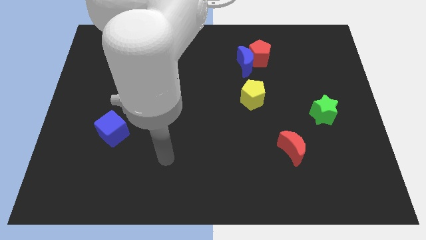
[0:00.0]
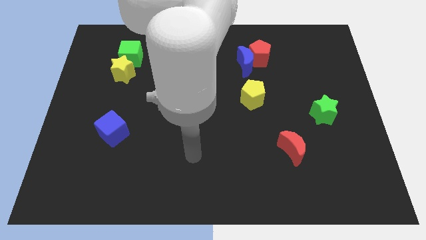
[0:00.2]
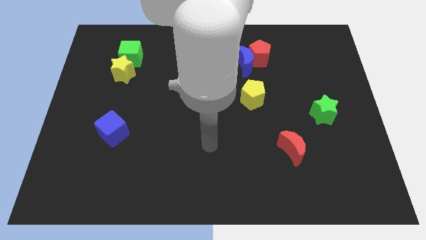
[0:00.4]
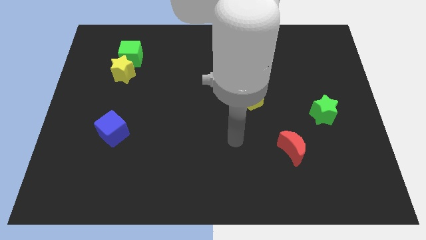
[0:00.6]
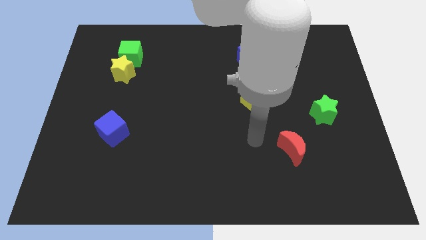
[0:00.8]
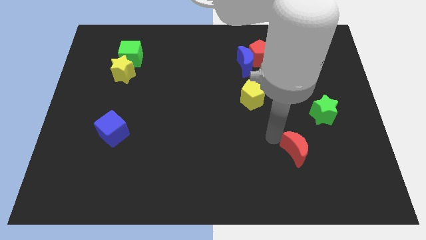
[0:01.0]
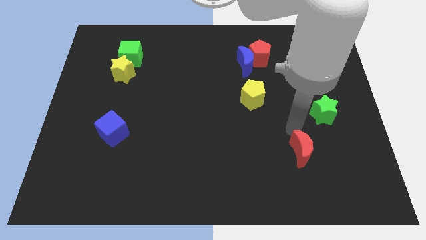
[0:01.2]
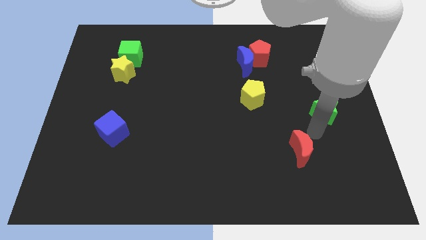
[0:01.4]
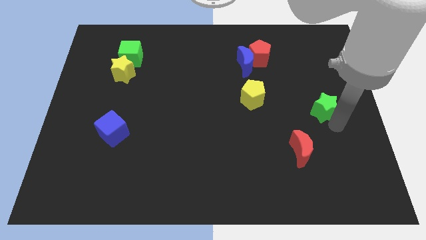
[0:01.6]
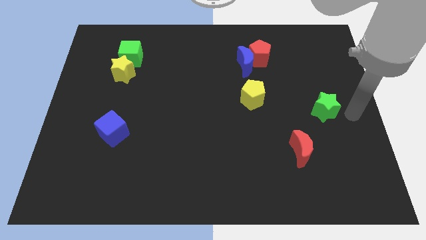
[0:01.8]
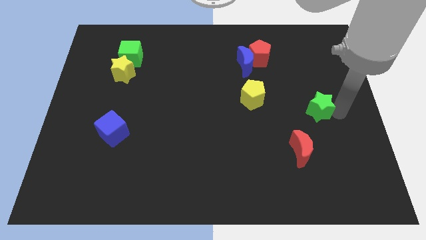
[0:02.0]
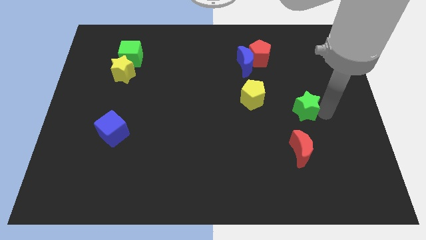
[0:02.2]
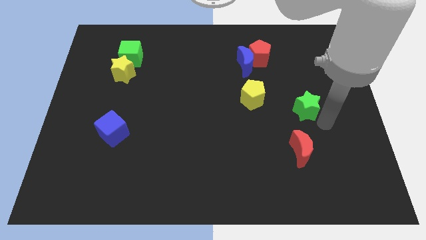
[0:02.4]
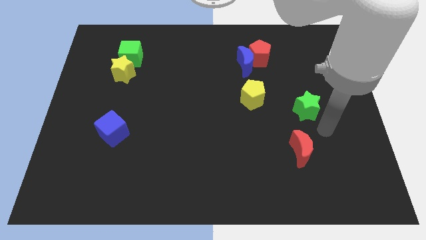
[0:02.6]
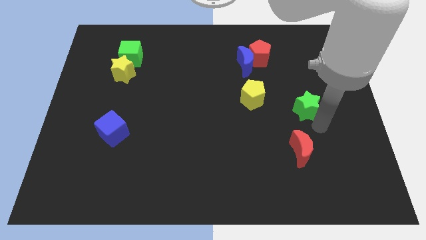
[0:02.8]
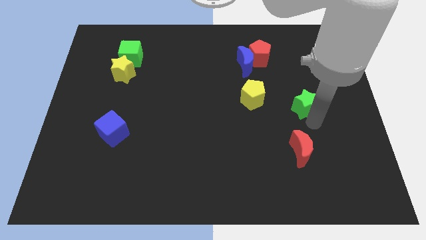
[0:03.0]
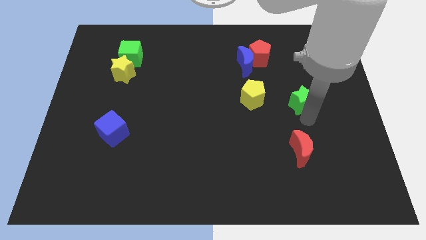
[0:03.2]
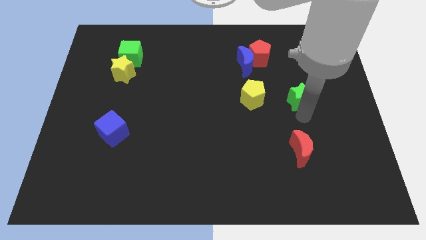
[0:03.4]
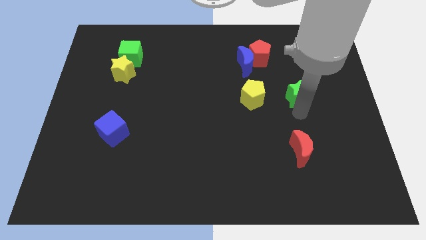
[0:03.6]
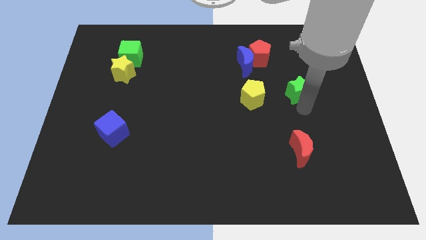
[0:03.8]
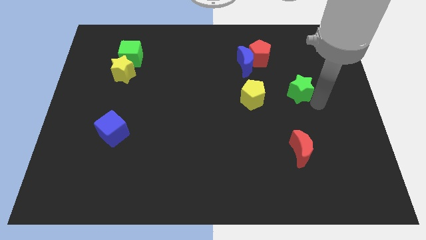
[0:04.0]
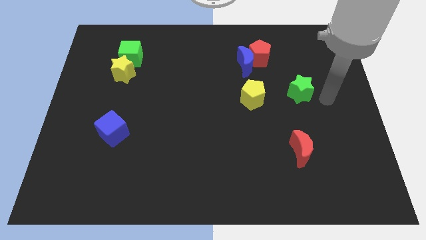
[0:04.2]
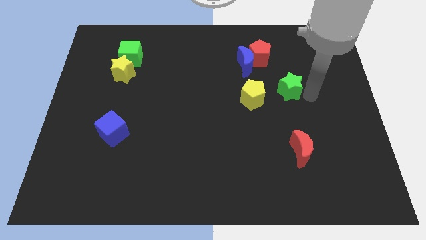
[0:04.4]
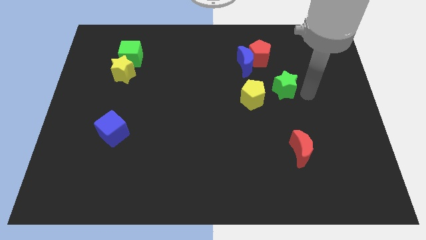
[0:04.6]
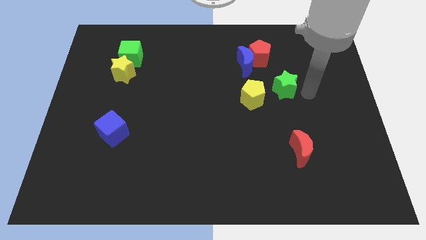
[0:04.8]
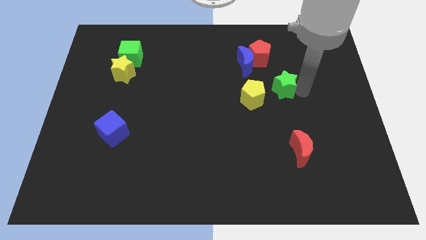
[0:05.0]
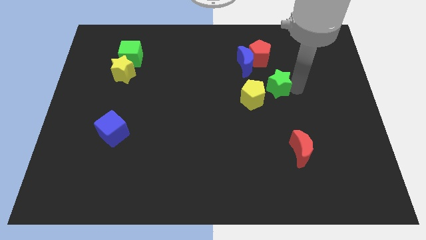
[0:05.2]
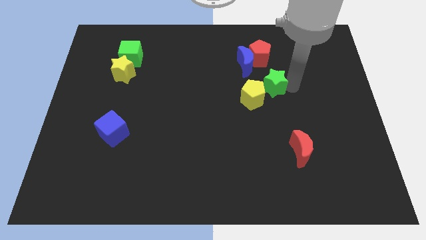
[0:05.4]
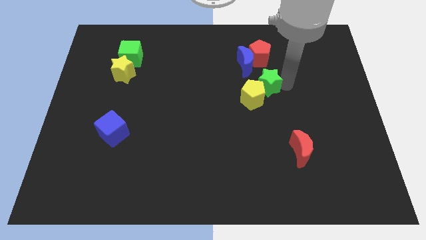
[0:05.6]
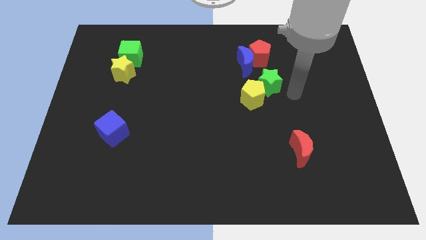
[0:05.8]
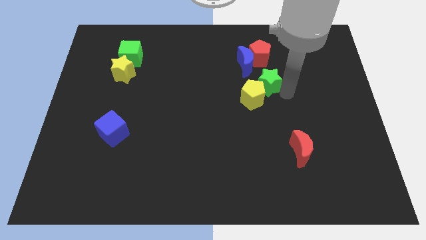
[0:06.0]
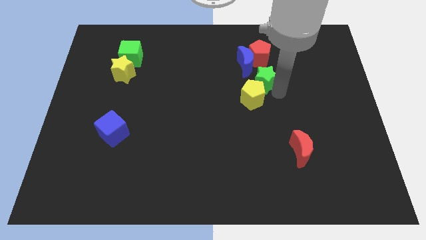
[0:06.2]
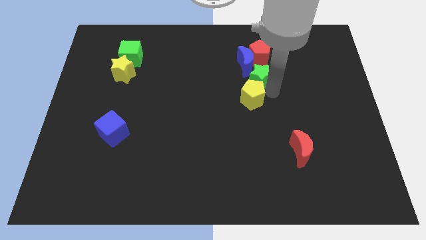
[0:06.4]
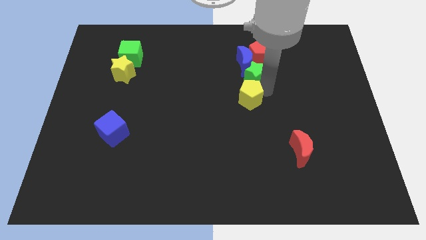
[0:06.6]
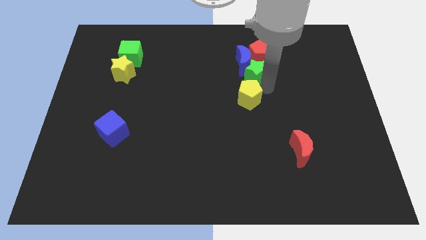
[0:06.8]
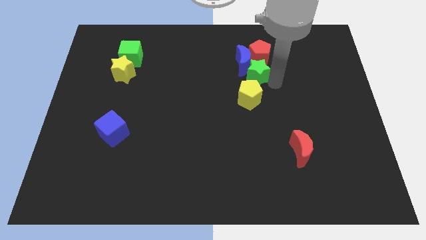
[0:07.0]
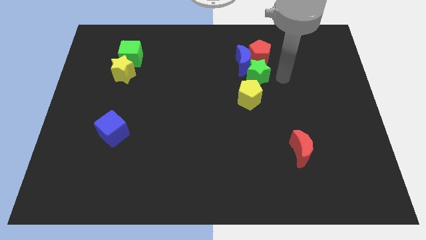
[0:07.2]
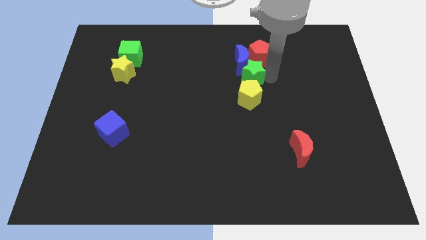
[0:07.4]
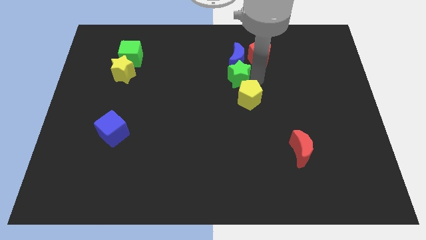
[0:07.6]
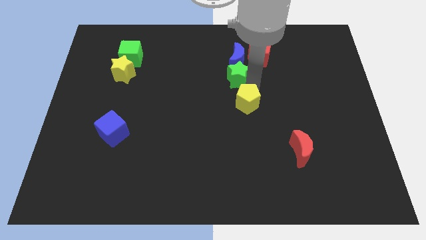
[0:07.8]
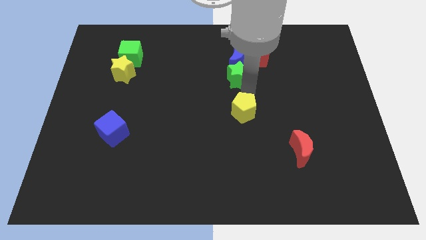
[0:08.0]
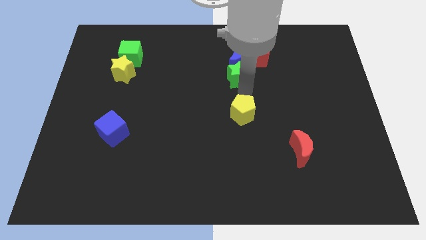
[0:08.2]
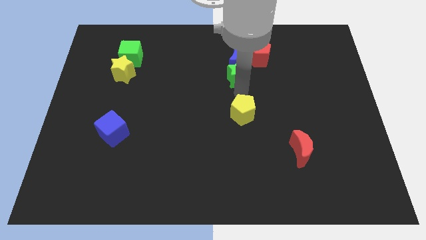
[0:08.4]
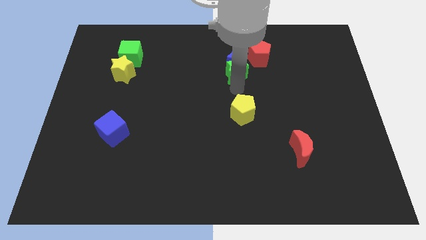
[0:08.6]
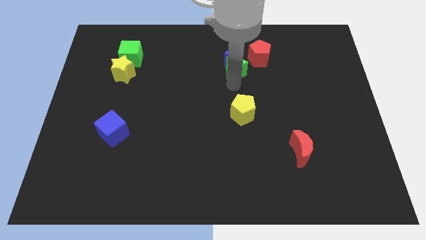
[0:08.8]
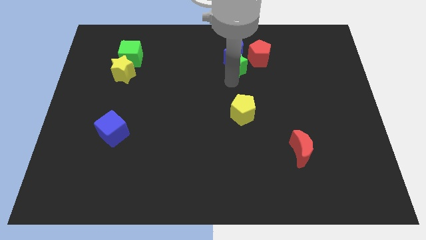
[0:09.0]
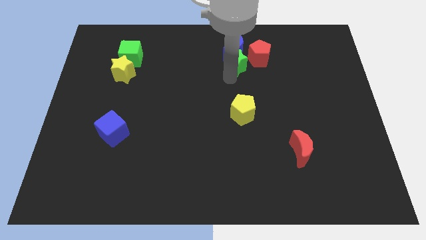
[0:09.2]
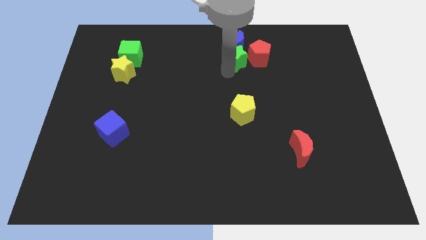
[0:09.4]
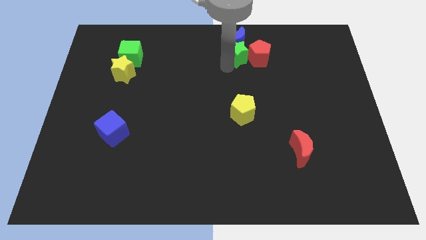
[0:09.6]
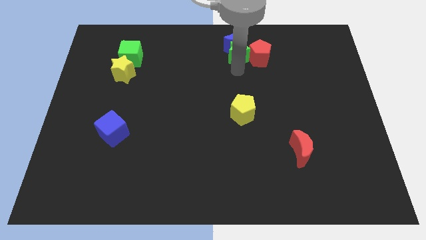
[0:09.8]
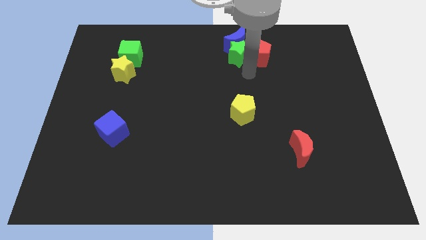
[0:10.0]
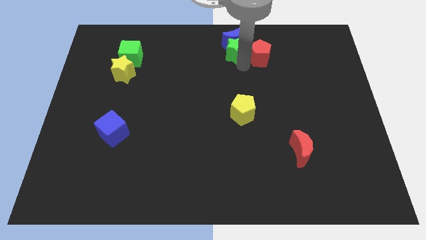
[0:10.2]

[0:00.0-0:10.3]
move the green star to the top
